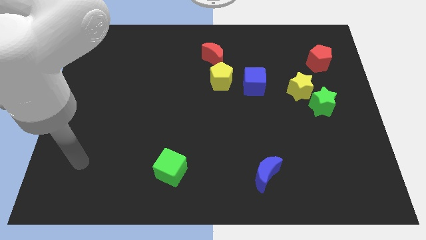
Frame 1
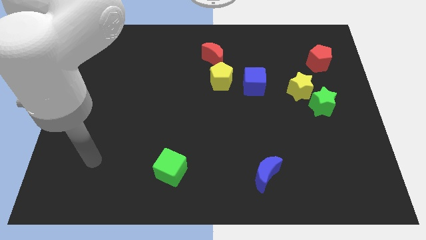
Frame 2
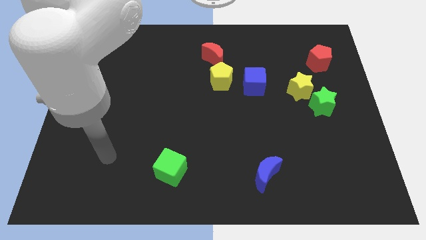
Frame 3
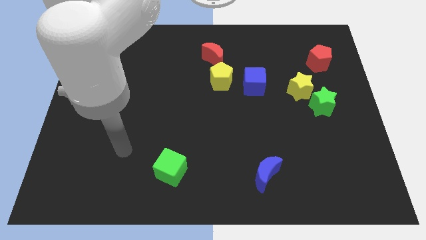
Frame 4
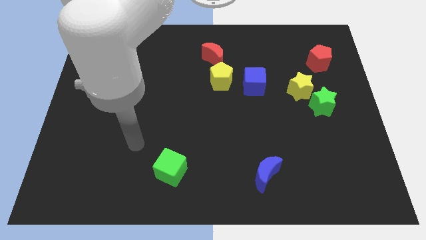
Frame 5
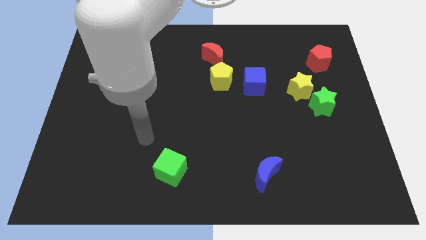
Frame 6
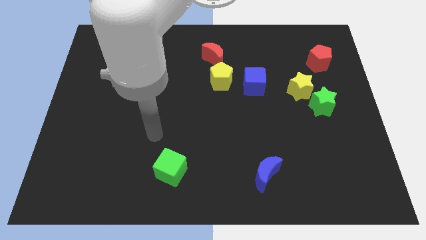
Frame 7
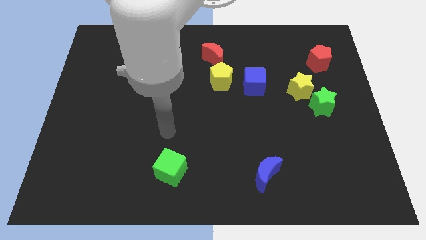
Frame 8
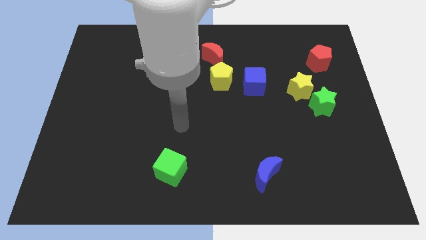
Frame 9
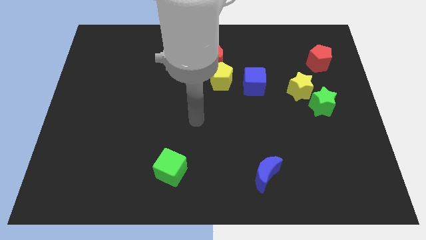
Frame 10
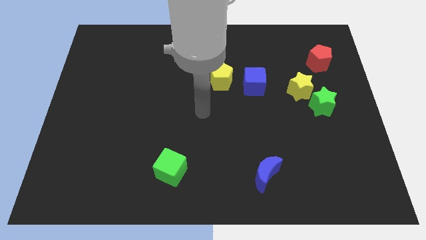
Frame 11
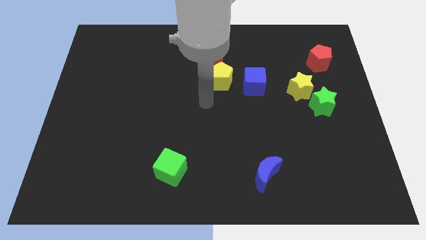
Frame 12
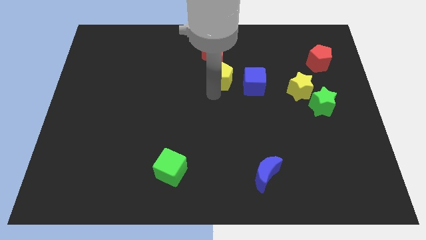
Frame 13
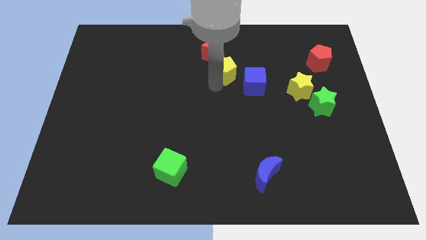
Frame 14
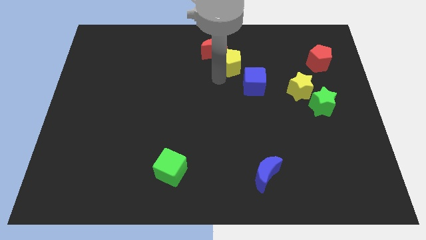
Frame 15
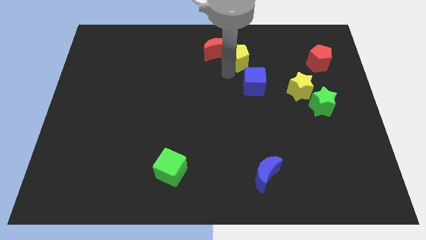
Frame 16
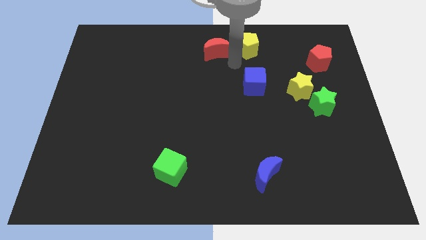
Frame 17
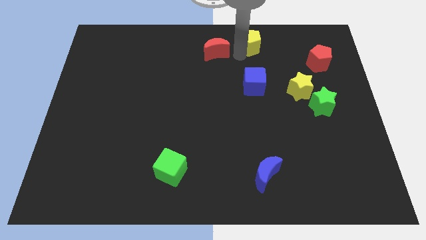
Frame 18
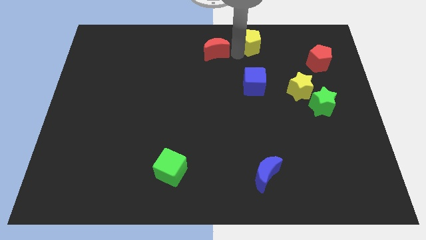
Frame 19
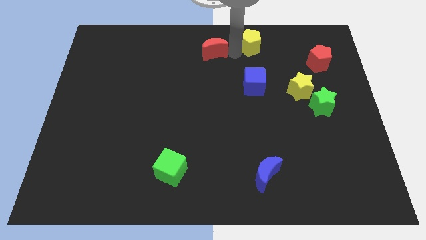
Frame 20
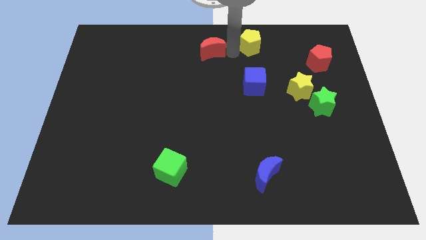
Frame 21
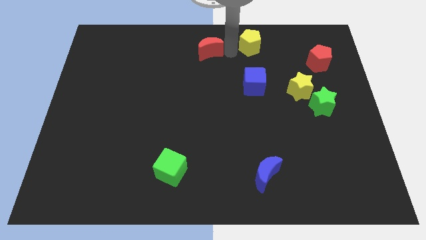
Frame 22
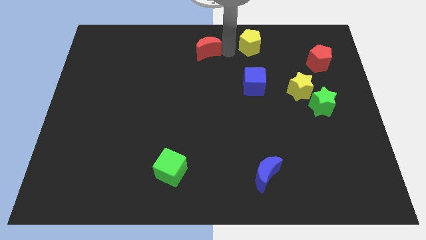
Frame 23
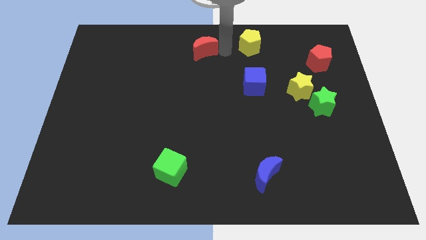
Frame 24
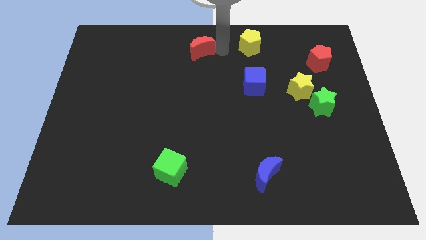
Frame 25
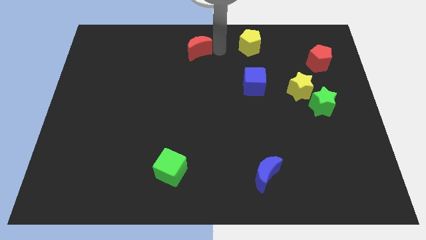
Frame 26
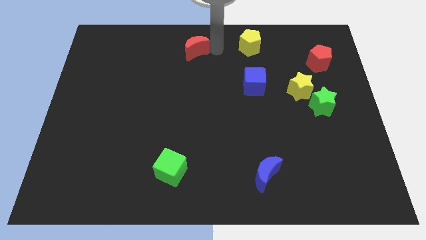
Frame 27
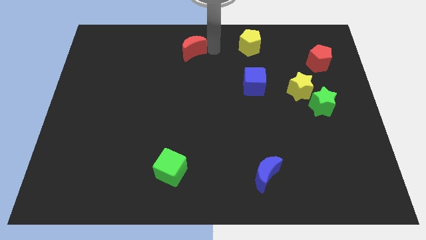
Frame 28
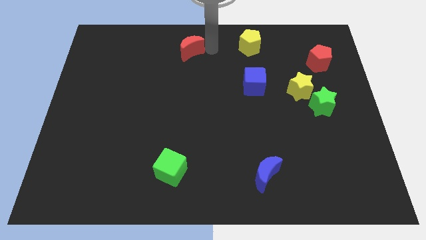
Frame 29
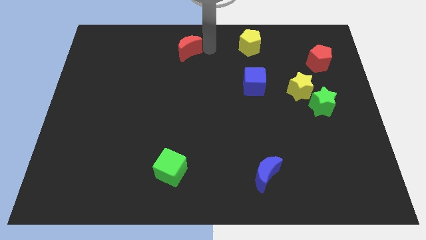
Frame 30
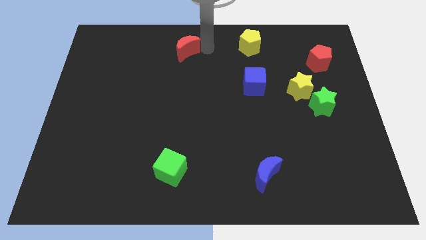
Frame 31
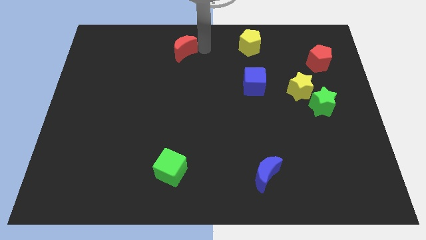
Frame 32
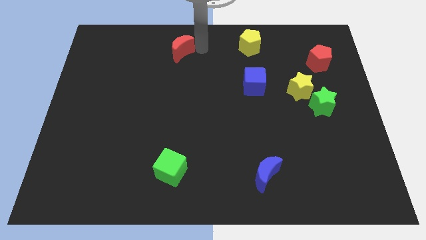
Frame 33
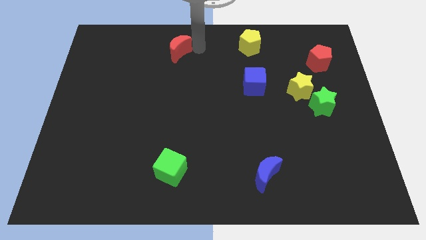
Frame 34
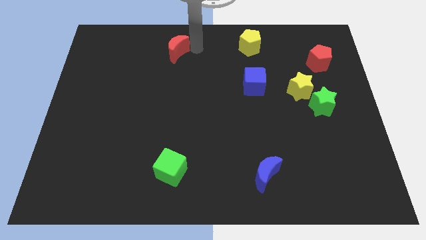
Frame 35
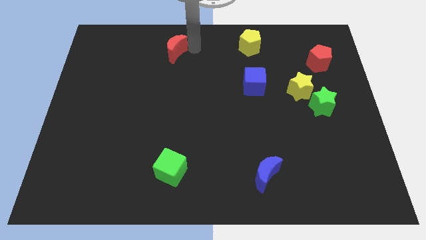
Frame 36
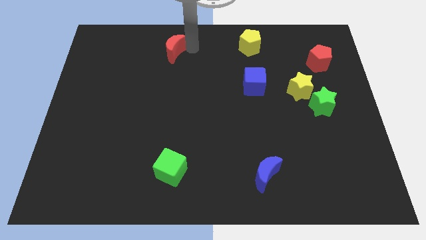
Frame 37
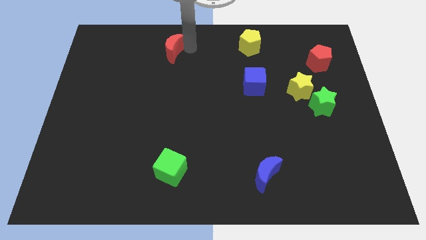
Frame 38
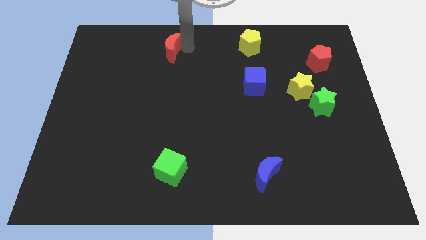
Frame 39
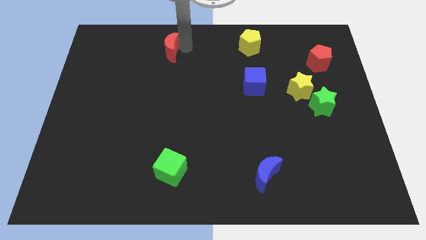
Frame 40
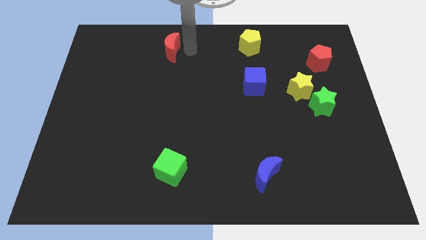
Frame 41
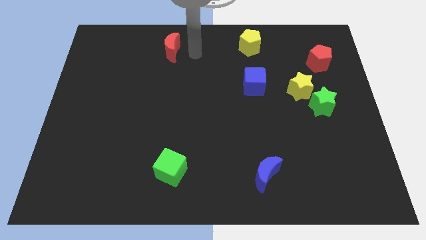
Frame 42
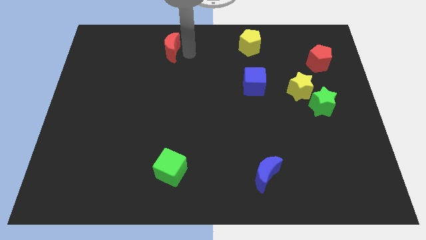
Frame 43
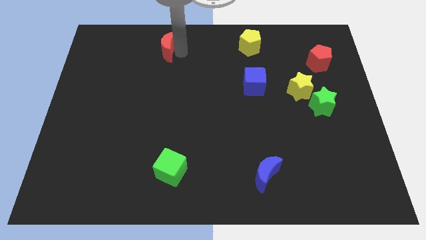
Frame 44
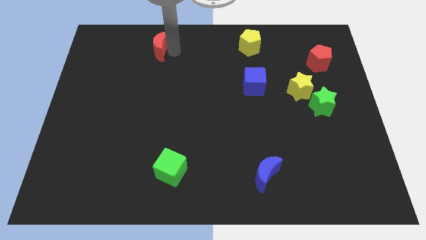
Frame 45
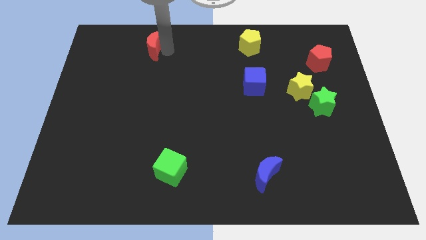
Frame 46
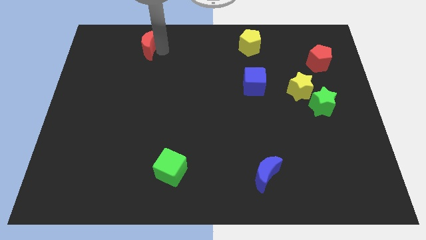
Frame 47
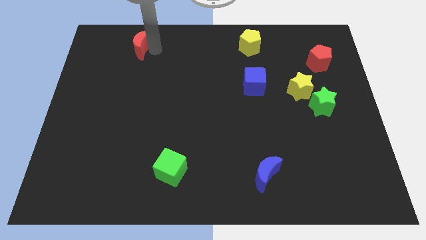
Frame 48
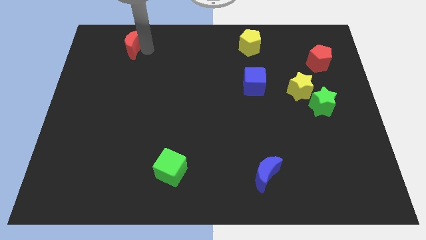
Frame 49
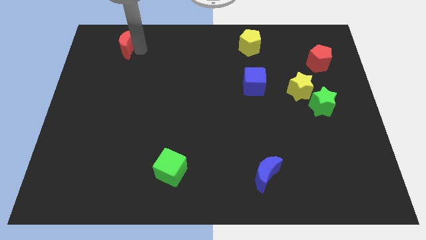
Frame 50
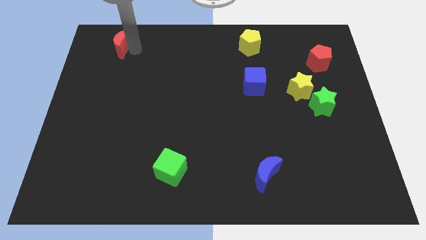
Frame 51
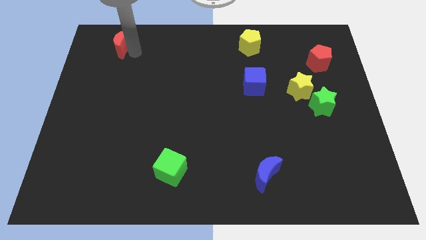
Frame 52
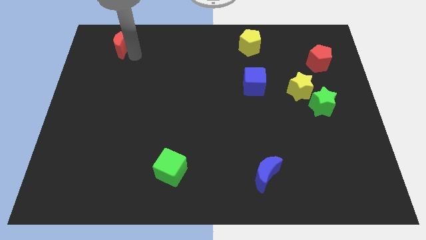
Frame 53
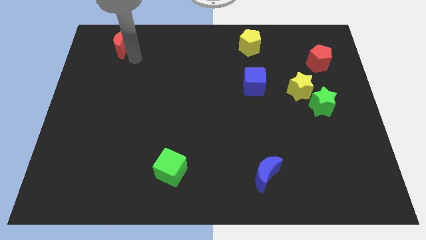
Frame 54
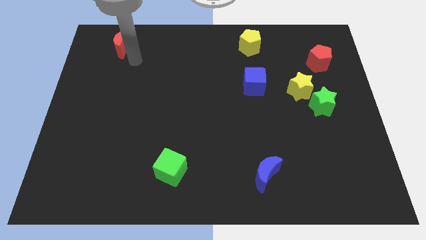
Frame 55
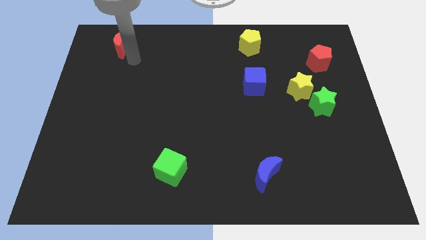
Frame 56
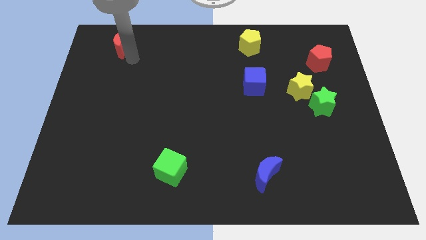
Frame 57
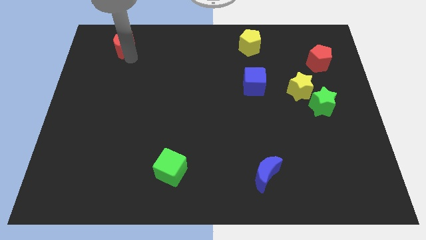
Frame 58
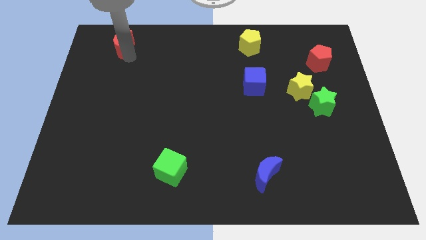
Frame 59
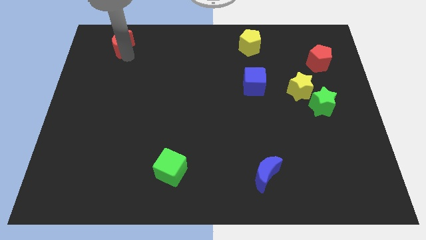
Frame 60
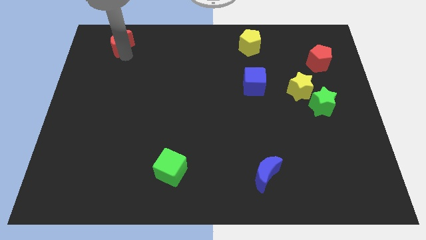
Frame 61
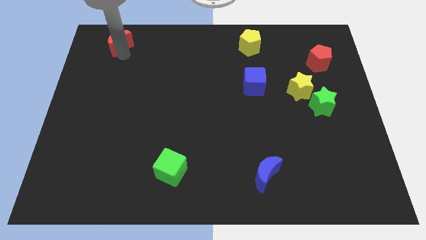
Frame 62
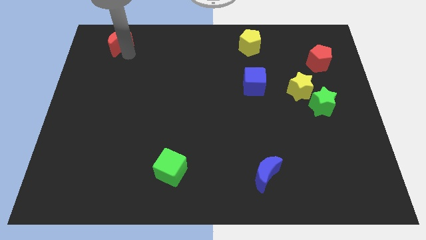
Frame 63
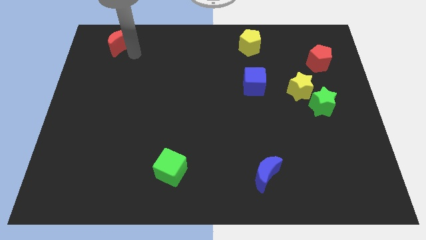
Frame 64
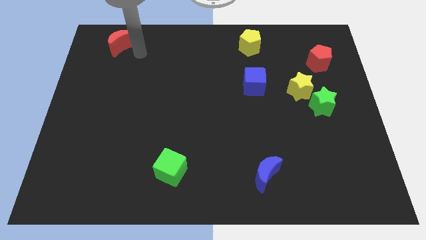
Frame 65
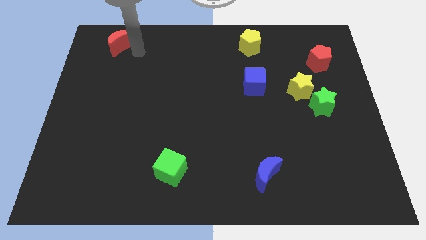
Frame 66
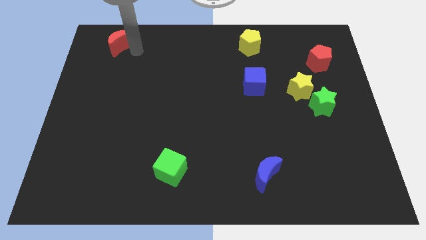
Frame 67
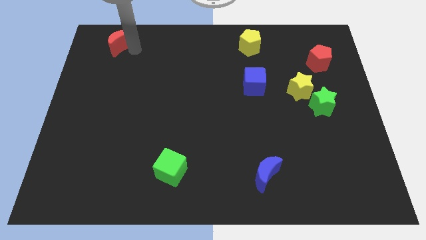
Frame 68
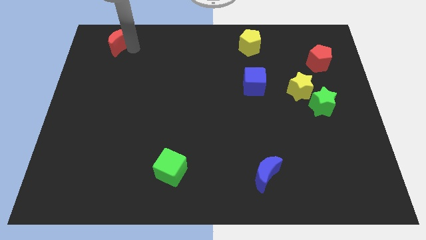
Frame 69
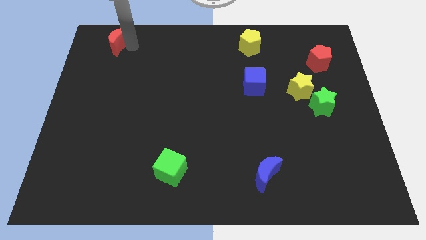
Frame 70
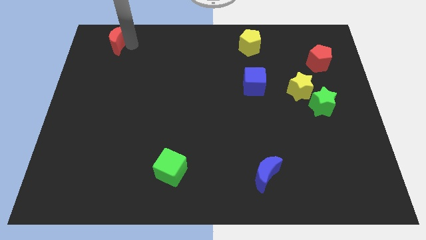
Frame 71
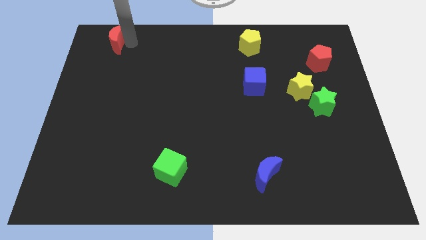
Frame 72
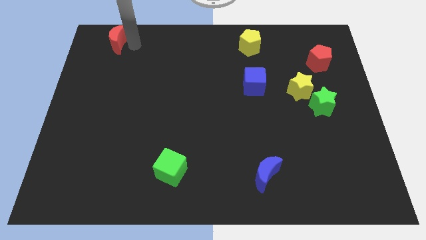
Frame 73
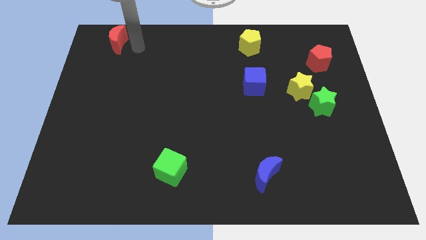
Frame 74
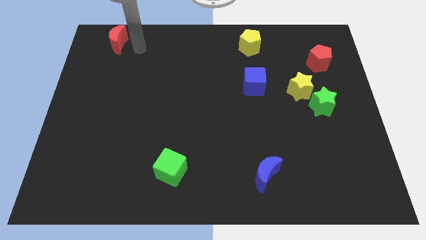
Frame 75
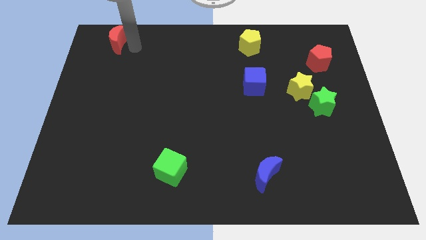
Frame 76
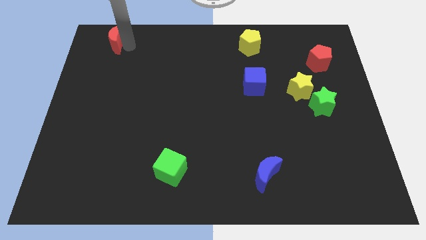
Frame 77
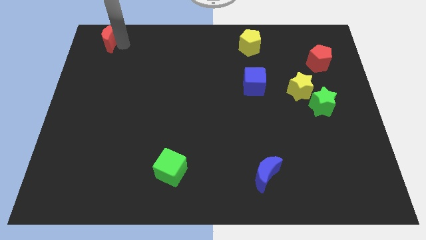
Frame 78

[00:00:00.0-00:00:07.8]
slide the red moon to the upper left corner
